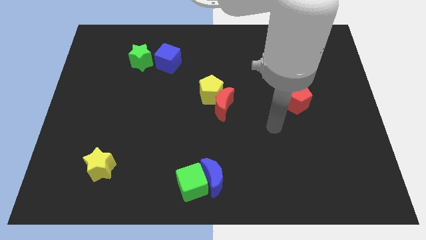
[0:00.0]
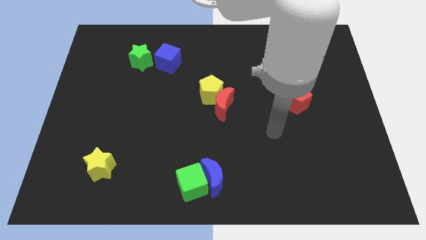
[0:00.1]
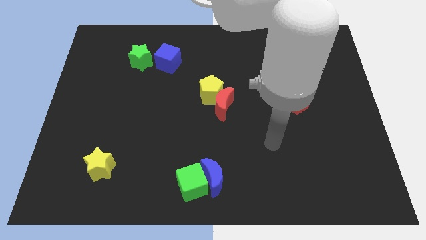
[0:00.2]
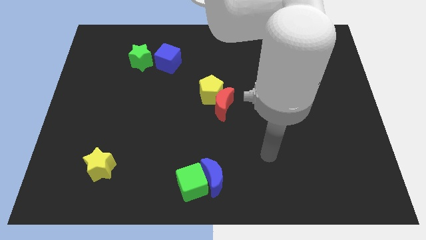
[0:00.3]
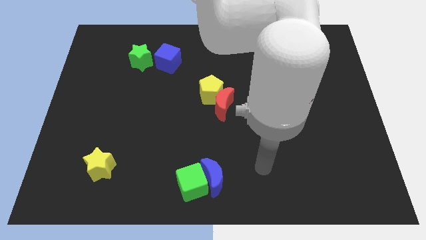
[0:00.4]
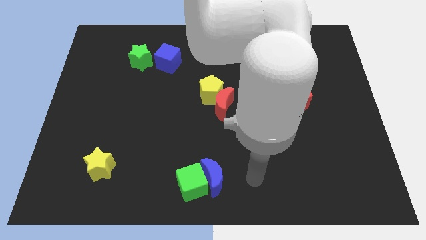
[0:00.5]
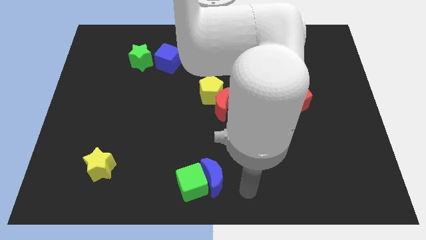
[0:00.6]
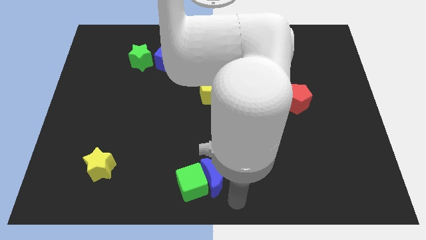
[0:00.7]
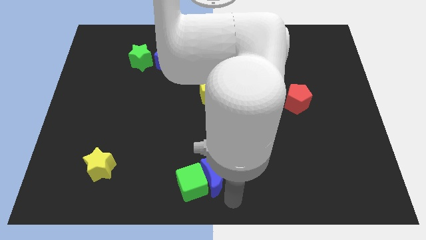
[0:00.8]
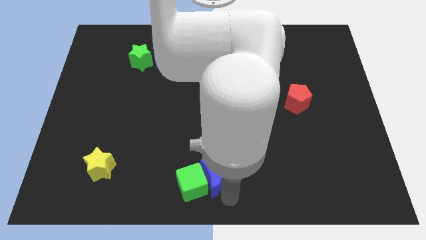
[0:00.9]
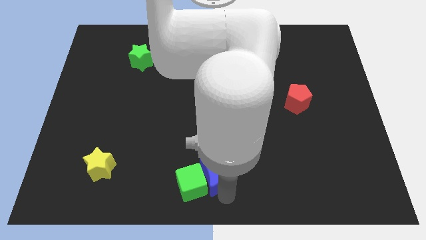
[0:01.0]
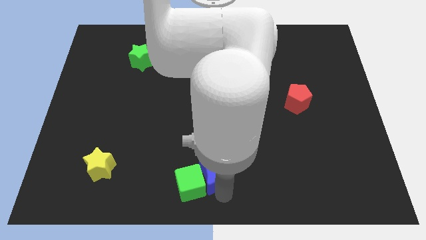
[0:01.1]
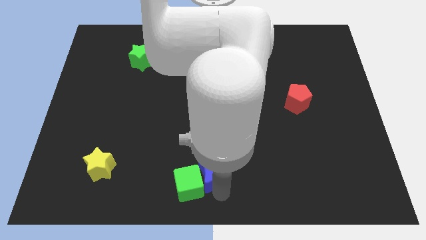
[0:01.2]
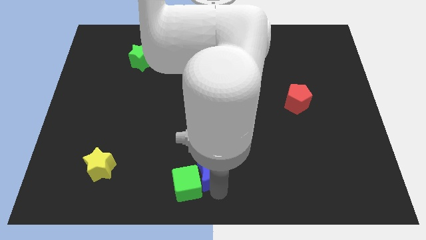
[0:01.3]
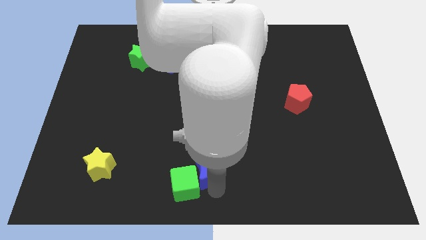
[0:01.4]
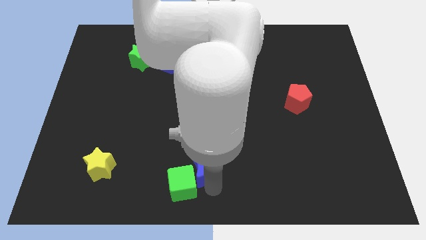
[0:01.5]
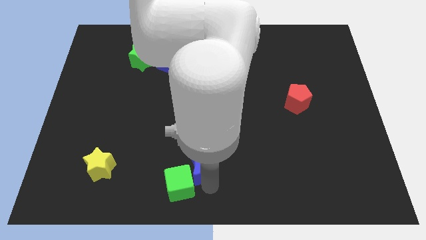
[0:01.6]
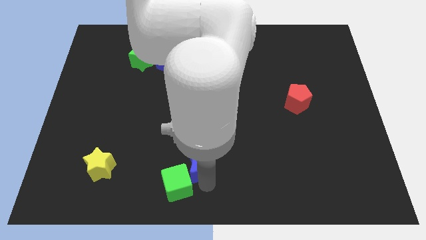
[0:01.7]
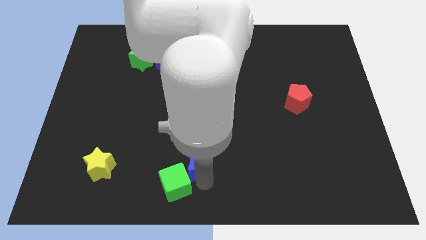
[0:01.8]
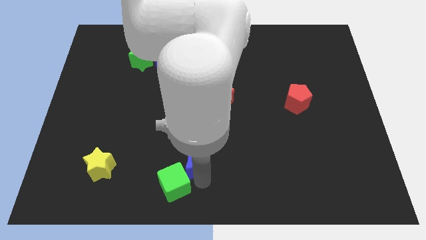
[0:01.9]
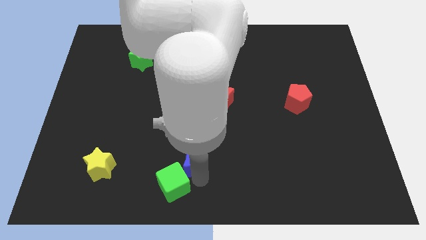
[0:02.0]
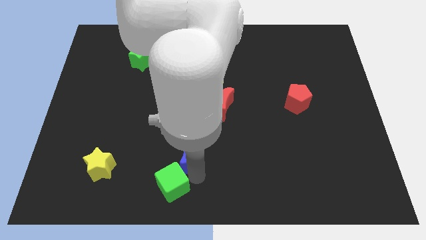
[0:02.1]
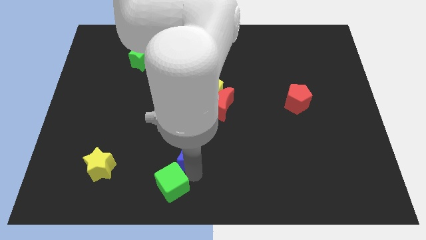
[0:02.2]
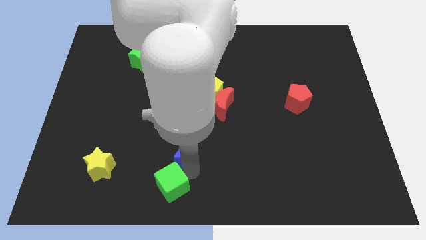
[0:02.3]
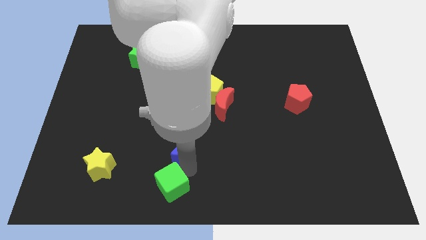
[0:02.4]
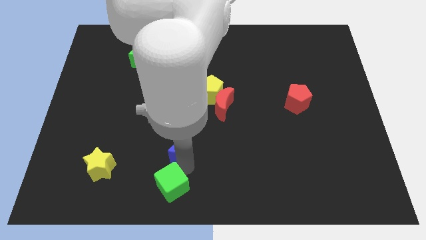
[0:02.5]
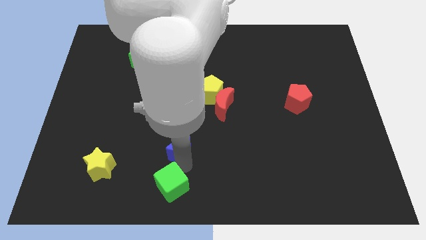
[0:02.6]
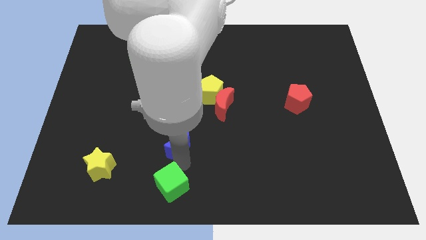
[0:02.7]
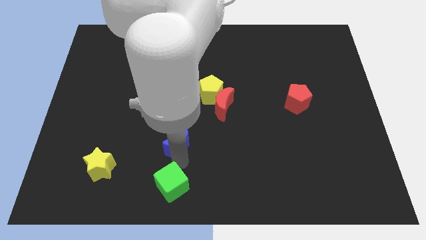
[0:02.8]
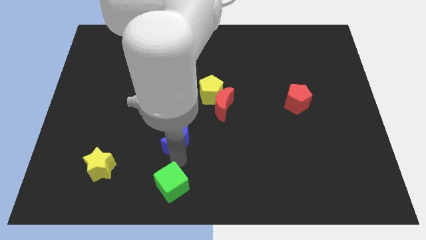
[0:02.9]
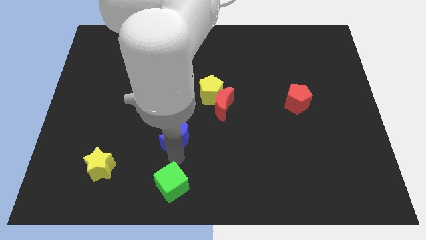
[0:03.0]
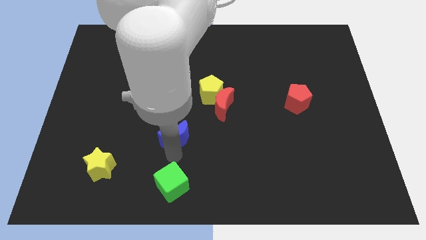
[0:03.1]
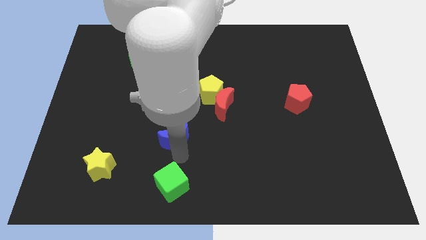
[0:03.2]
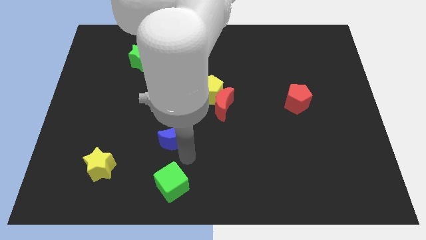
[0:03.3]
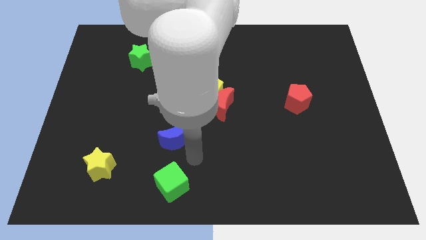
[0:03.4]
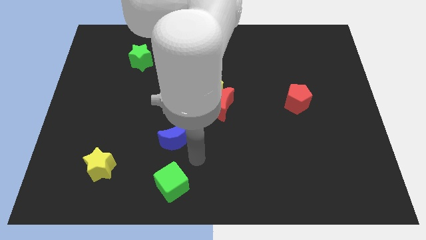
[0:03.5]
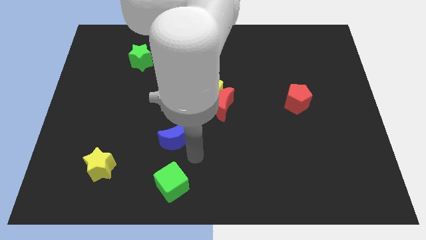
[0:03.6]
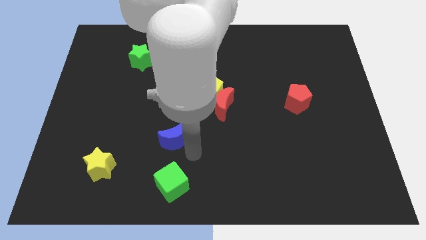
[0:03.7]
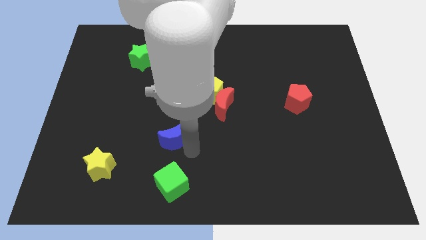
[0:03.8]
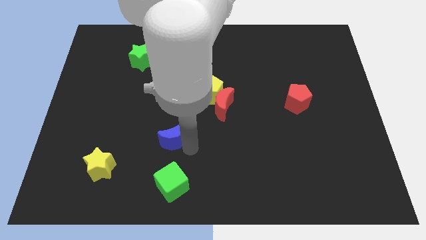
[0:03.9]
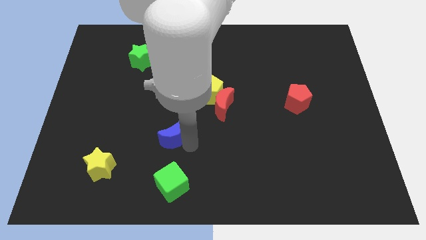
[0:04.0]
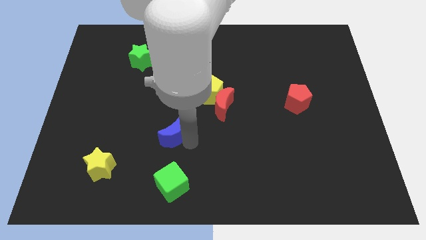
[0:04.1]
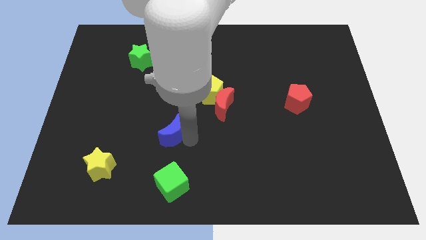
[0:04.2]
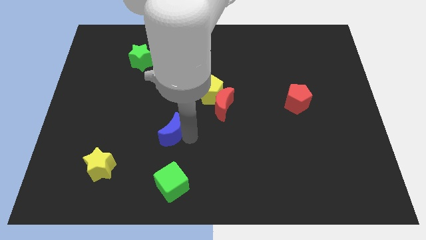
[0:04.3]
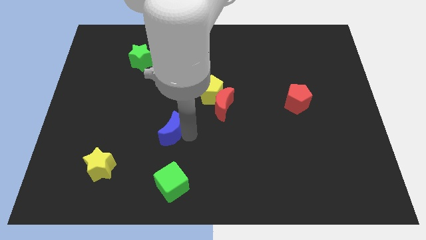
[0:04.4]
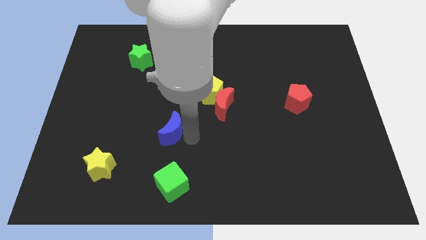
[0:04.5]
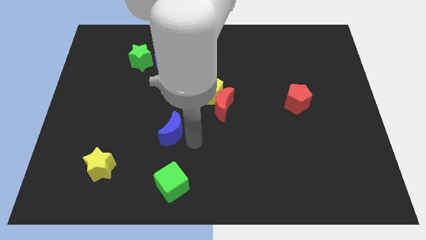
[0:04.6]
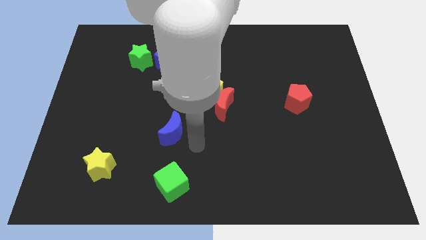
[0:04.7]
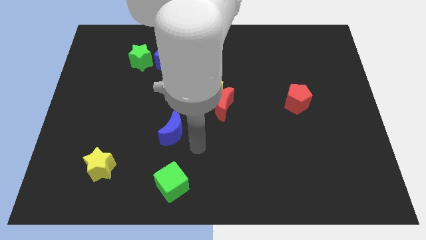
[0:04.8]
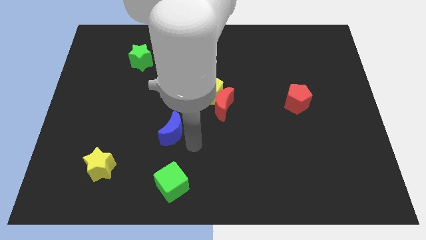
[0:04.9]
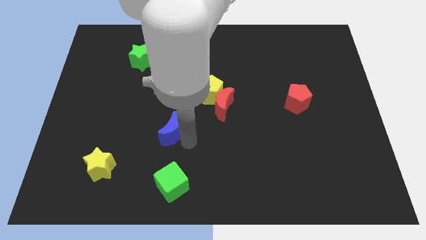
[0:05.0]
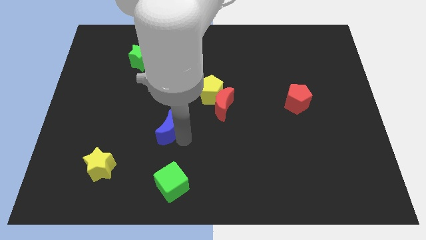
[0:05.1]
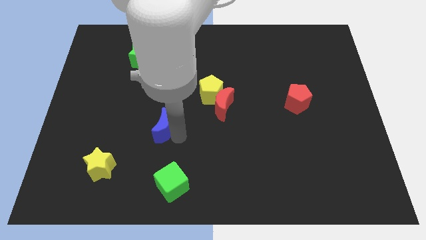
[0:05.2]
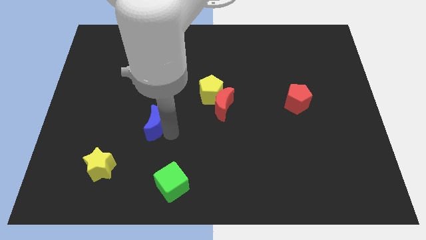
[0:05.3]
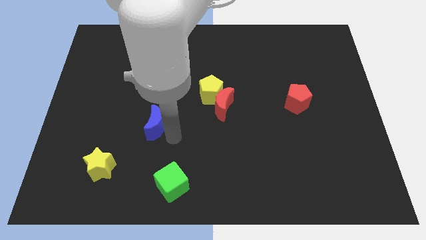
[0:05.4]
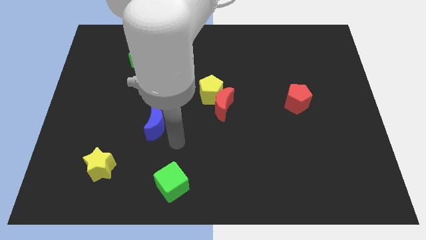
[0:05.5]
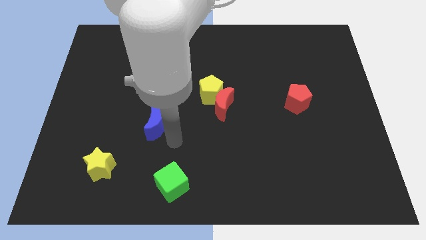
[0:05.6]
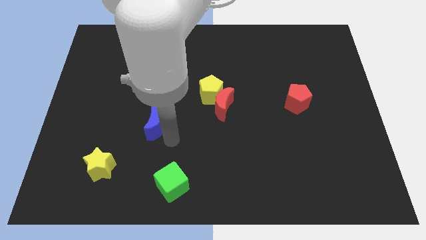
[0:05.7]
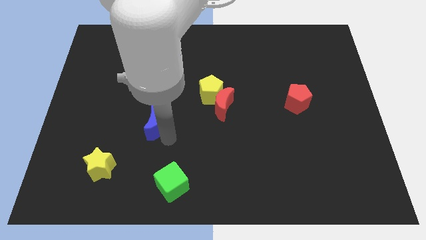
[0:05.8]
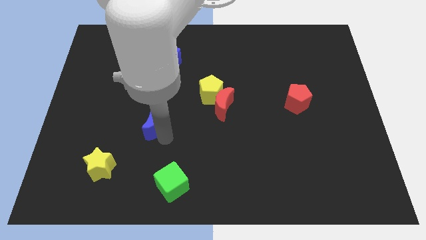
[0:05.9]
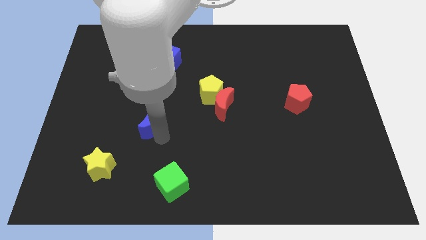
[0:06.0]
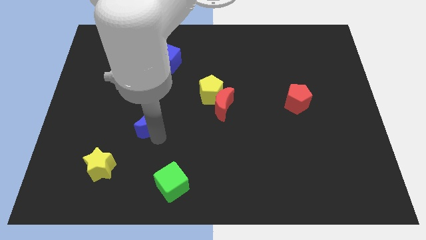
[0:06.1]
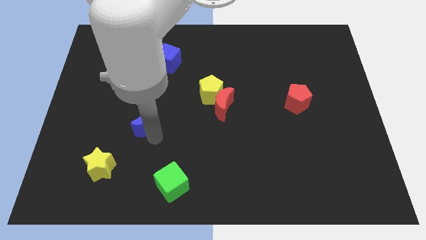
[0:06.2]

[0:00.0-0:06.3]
push the blue moon diagonally up and to the left

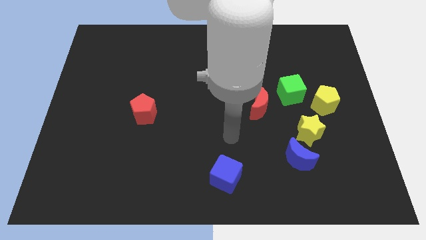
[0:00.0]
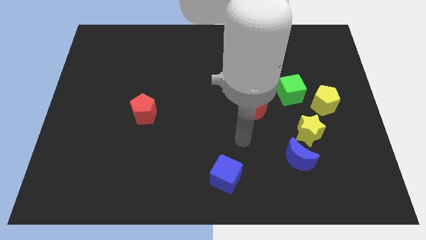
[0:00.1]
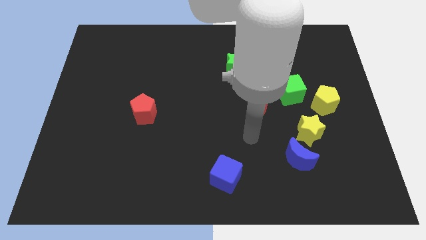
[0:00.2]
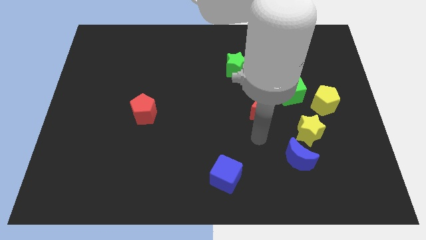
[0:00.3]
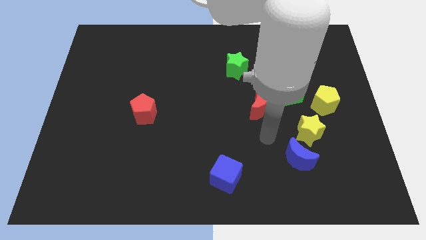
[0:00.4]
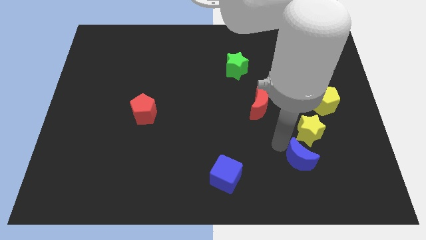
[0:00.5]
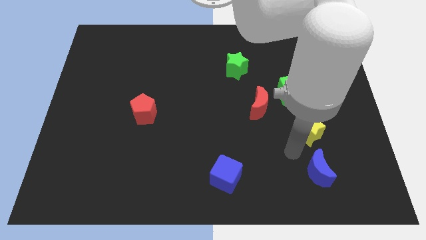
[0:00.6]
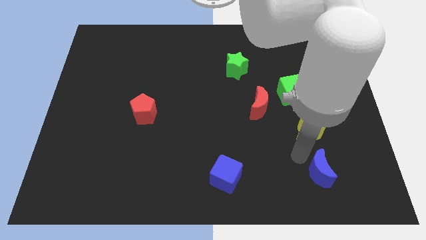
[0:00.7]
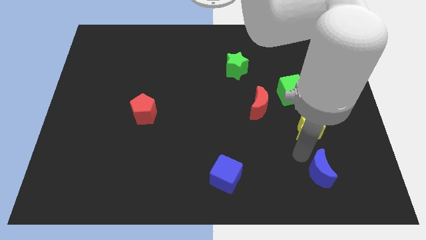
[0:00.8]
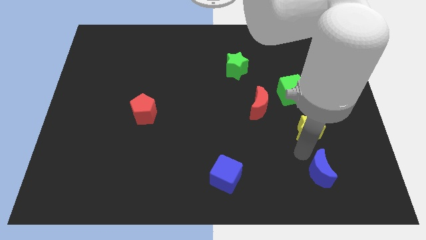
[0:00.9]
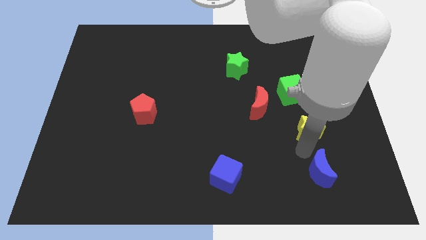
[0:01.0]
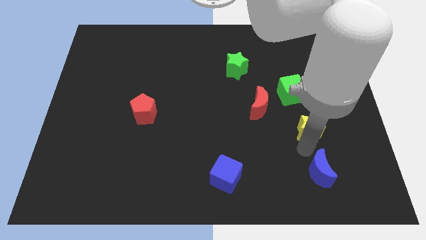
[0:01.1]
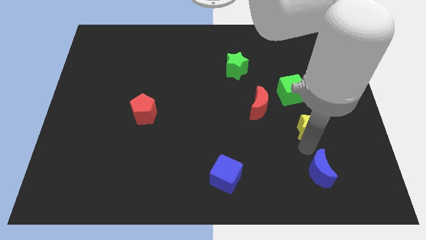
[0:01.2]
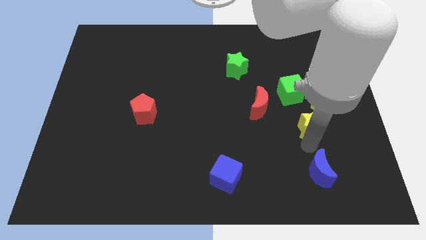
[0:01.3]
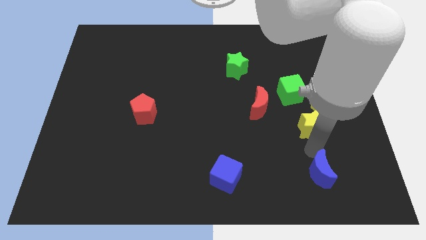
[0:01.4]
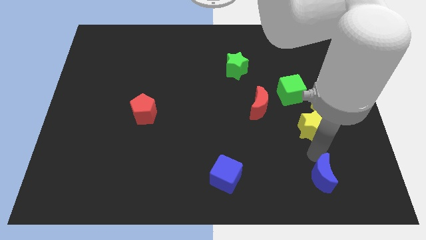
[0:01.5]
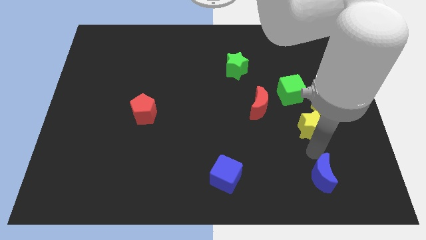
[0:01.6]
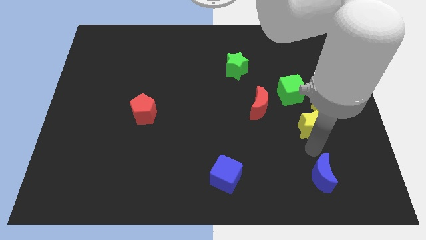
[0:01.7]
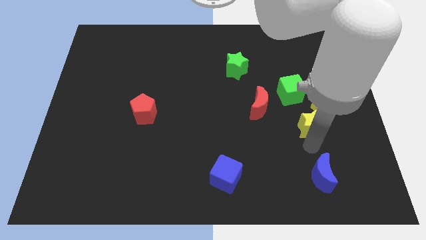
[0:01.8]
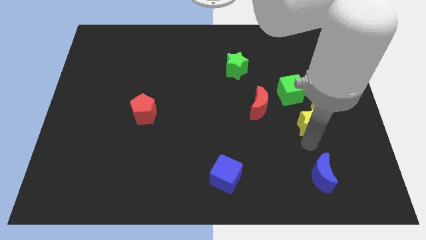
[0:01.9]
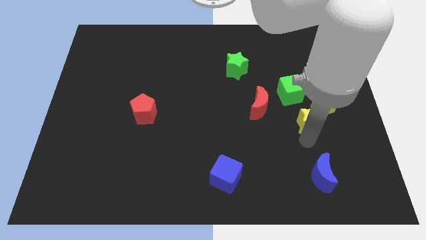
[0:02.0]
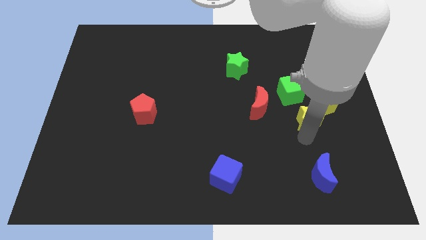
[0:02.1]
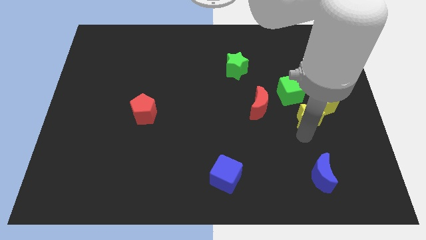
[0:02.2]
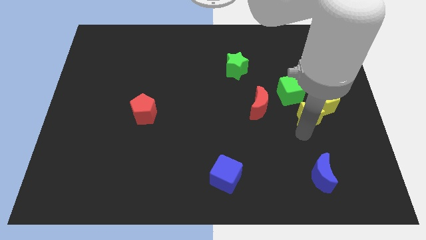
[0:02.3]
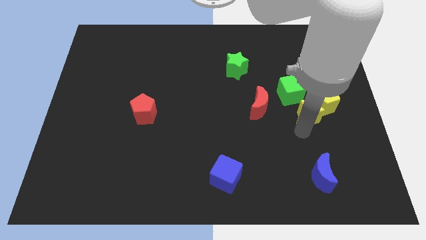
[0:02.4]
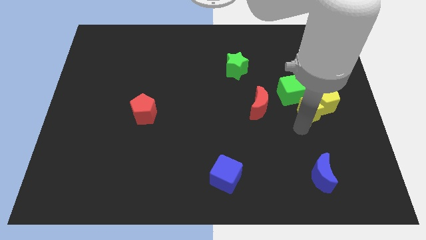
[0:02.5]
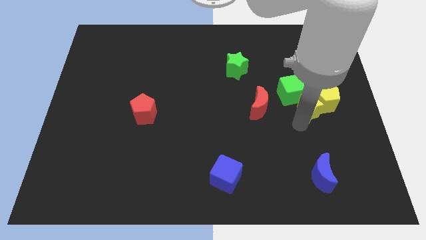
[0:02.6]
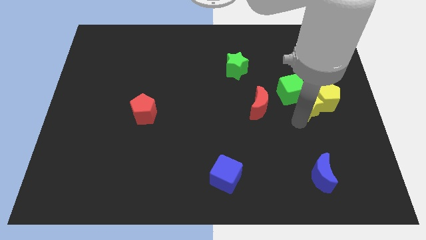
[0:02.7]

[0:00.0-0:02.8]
push the yellow star a bit up
